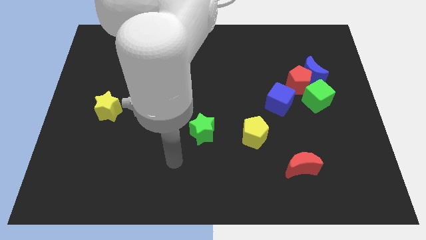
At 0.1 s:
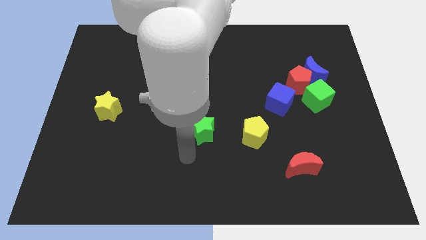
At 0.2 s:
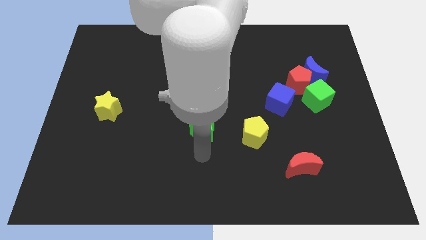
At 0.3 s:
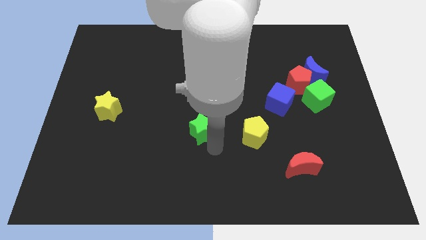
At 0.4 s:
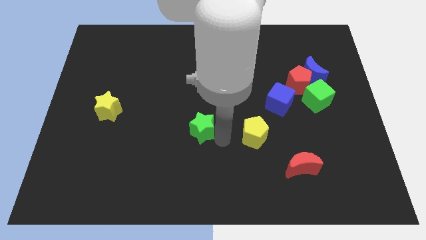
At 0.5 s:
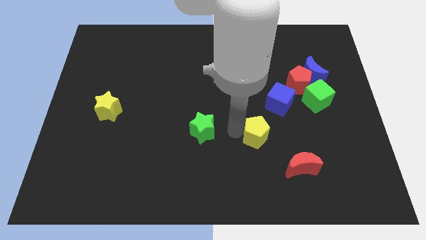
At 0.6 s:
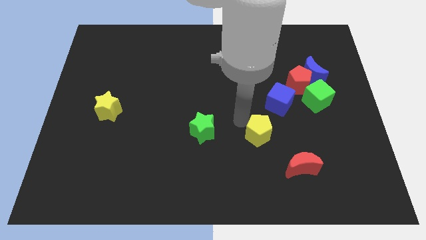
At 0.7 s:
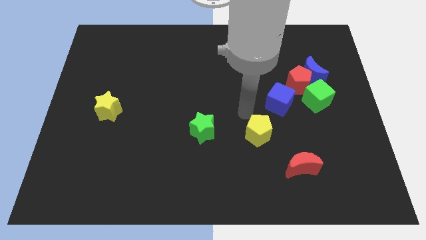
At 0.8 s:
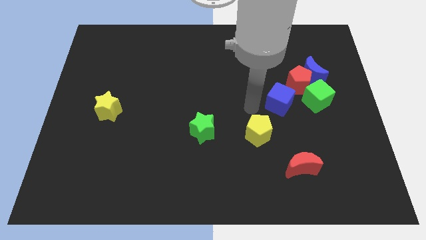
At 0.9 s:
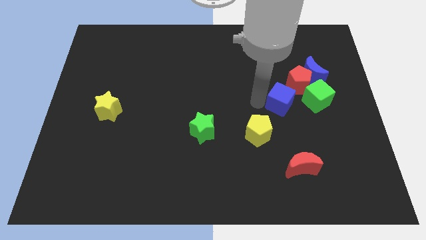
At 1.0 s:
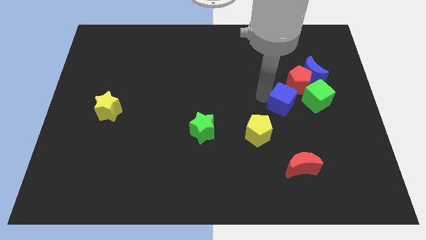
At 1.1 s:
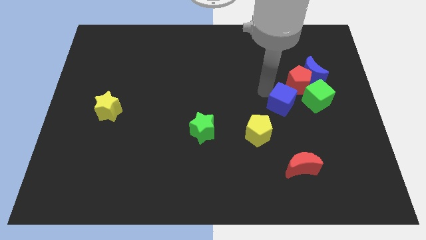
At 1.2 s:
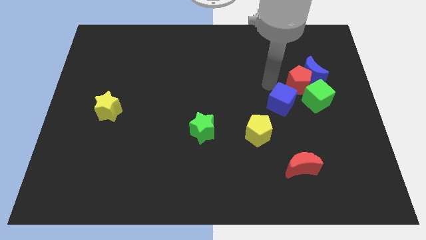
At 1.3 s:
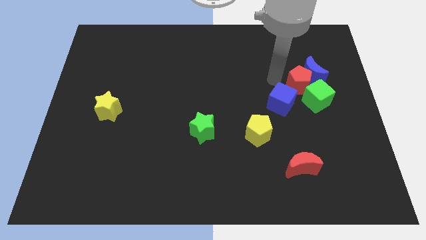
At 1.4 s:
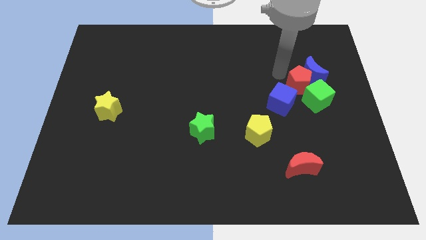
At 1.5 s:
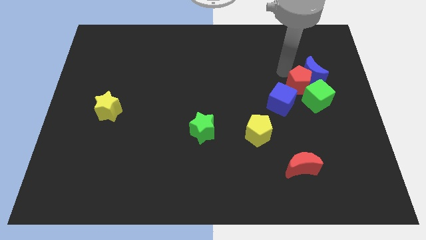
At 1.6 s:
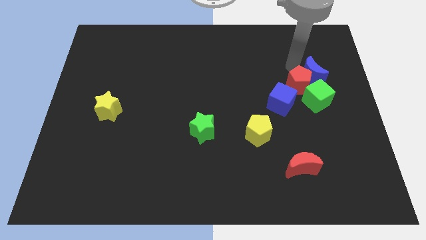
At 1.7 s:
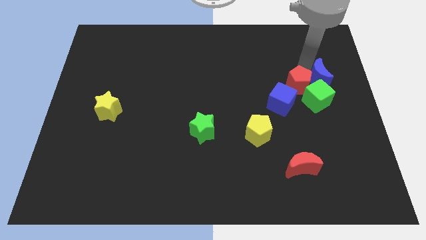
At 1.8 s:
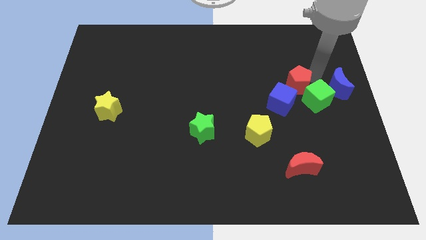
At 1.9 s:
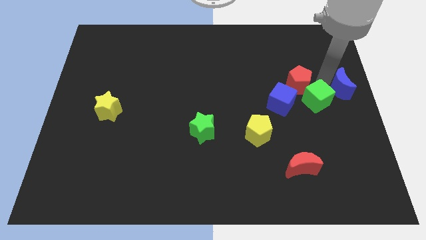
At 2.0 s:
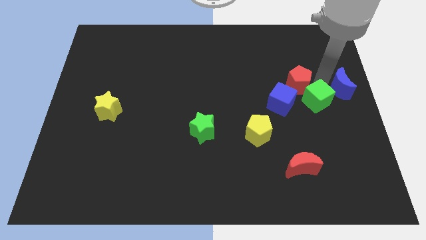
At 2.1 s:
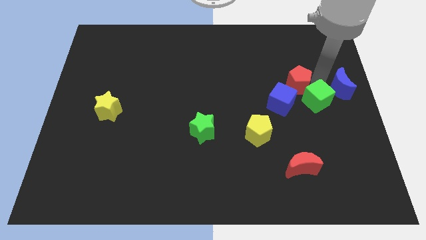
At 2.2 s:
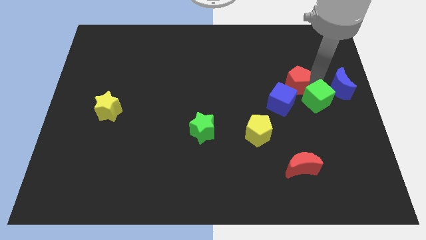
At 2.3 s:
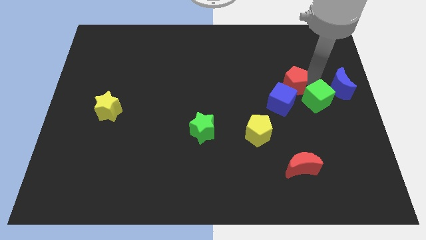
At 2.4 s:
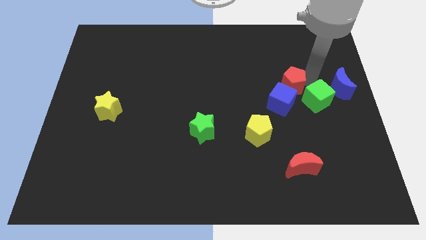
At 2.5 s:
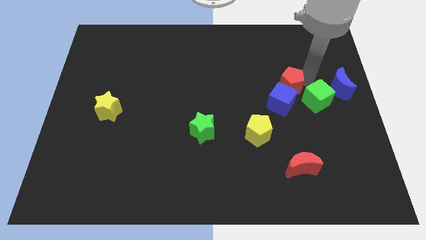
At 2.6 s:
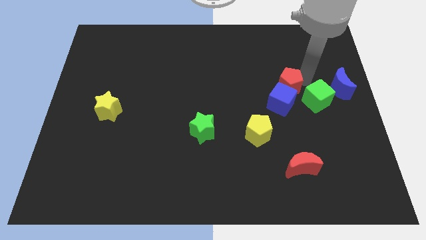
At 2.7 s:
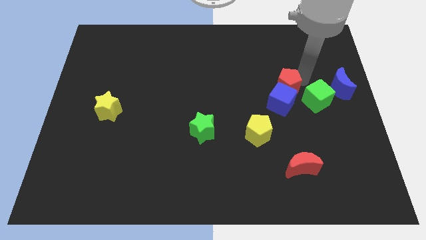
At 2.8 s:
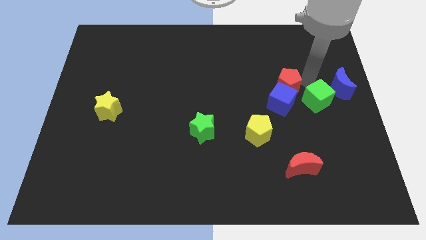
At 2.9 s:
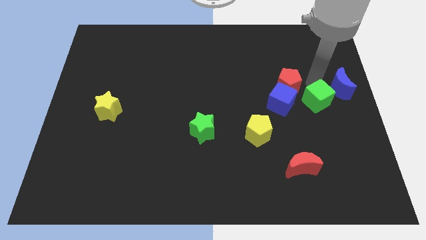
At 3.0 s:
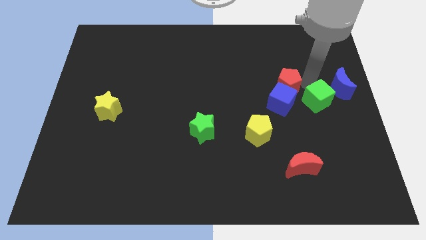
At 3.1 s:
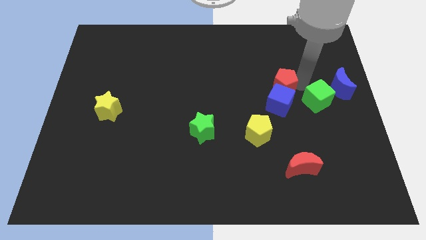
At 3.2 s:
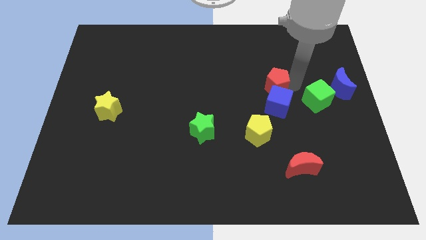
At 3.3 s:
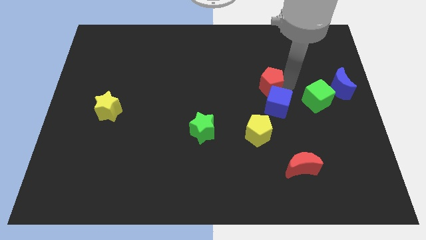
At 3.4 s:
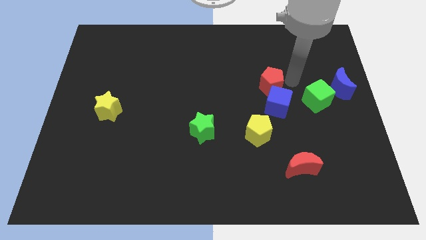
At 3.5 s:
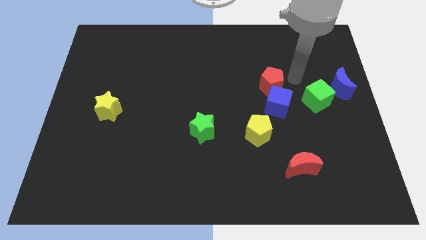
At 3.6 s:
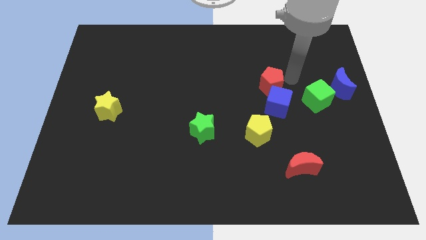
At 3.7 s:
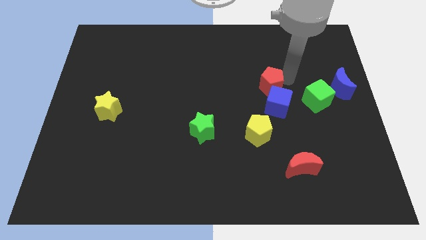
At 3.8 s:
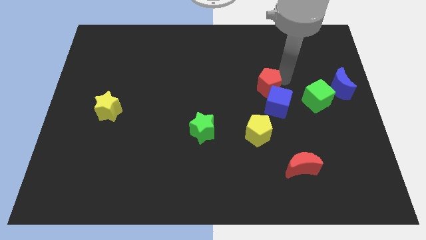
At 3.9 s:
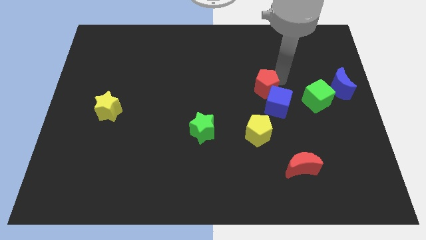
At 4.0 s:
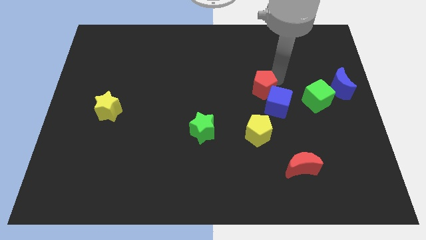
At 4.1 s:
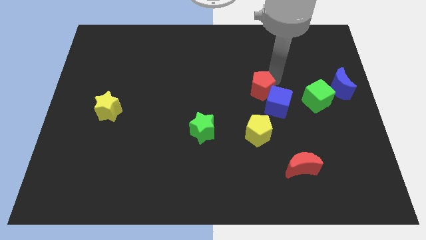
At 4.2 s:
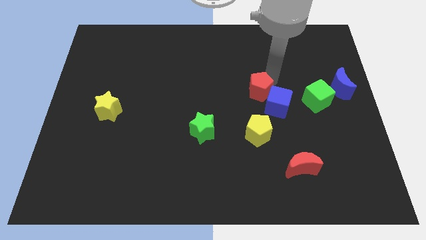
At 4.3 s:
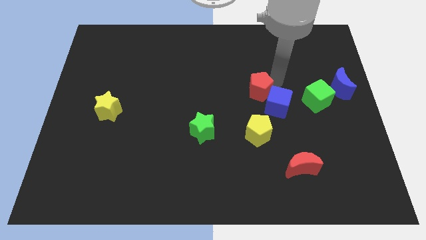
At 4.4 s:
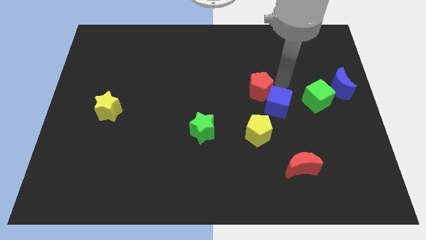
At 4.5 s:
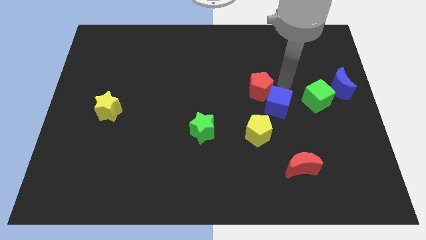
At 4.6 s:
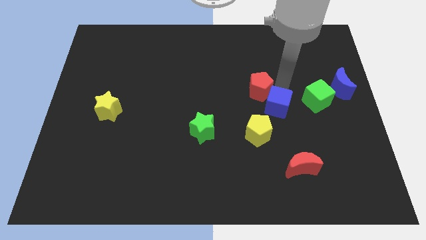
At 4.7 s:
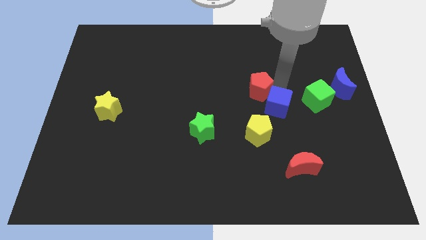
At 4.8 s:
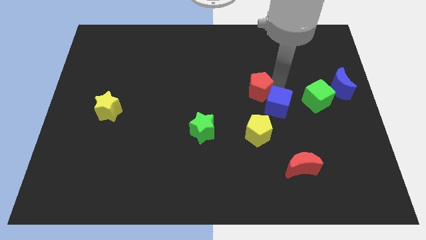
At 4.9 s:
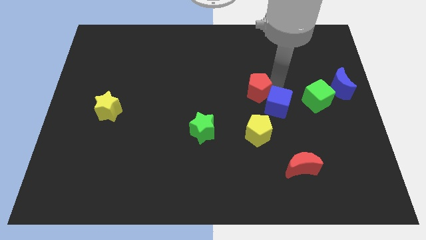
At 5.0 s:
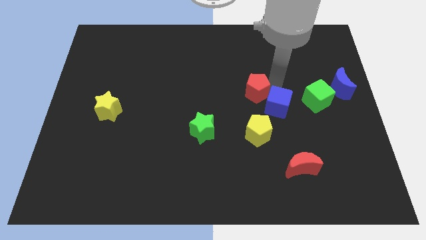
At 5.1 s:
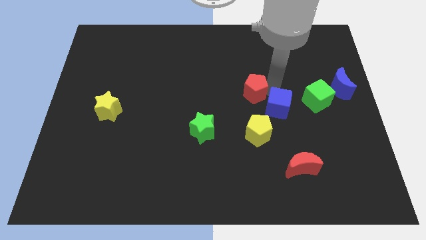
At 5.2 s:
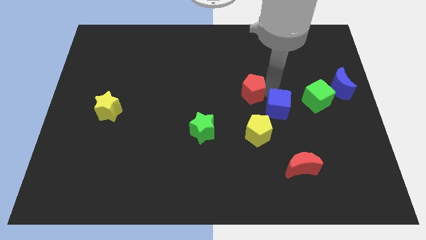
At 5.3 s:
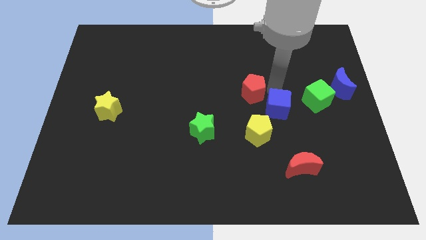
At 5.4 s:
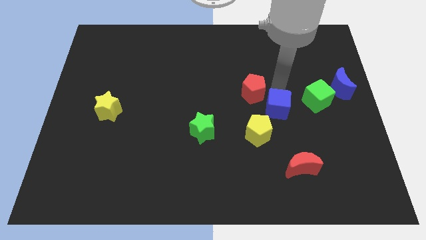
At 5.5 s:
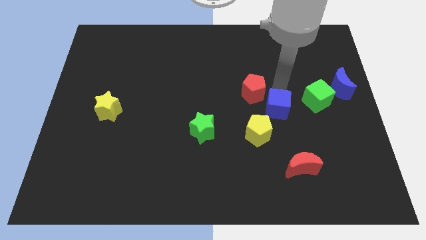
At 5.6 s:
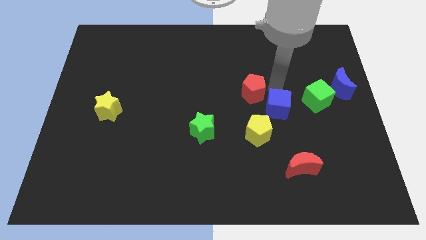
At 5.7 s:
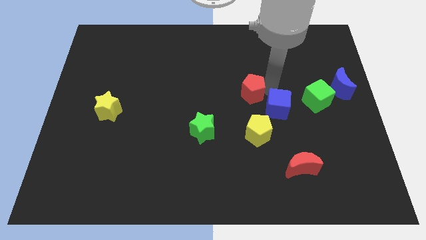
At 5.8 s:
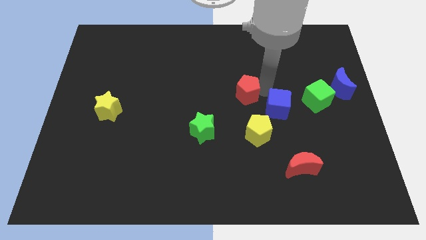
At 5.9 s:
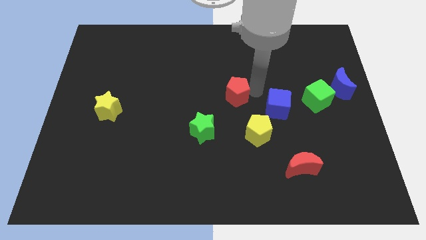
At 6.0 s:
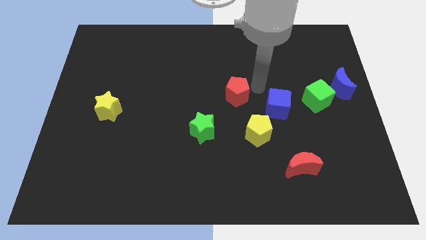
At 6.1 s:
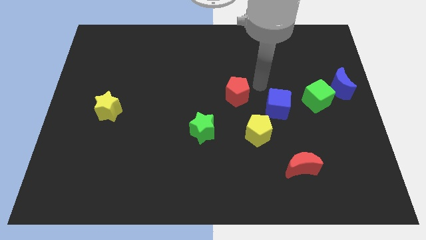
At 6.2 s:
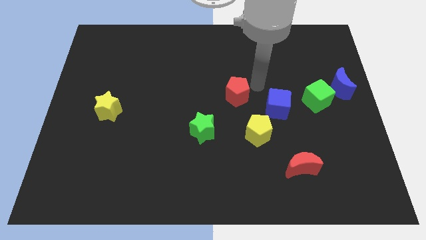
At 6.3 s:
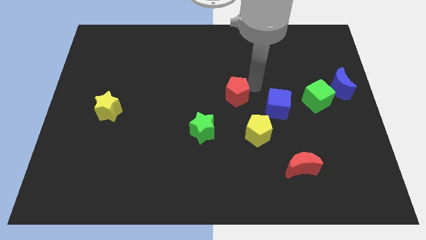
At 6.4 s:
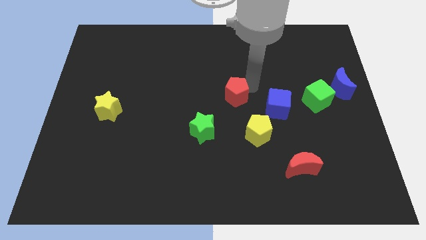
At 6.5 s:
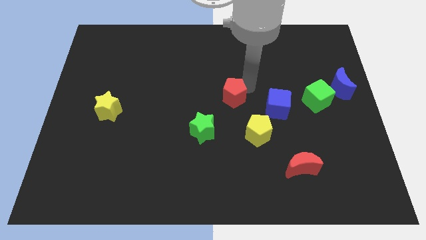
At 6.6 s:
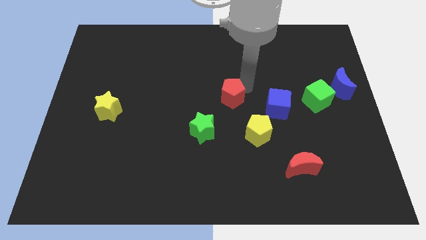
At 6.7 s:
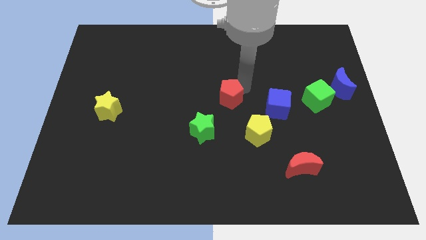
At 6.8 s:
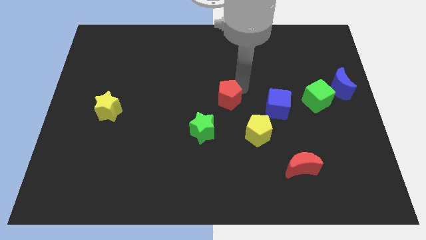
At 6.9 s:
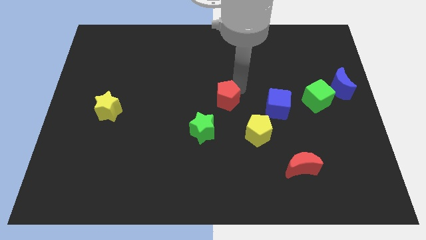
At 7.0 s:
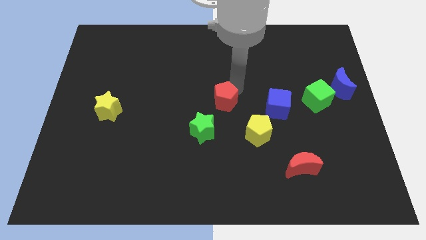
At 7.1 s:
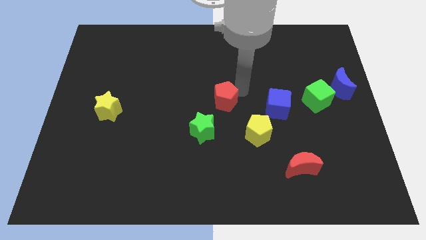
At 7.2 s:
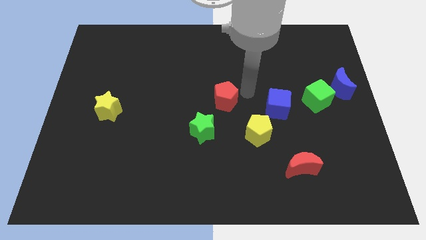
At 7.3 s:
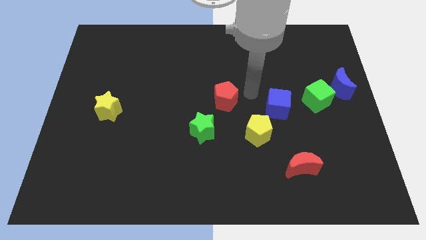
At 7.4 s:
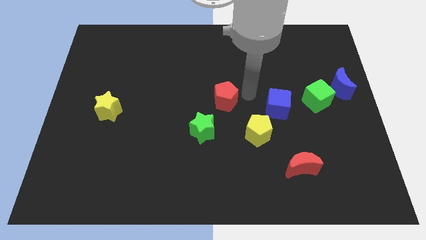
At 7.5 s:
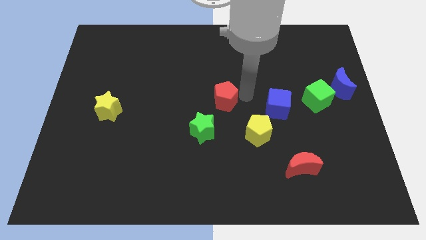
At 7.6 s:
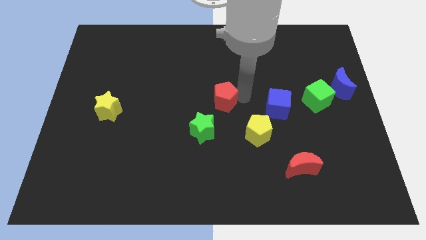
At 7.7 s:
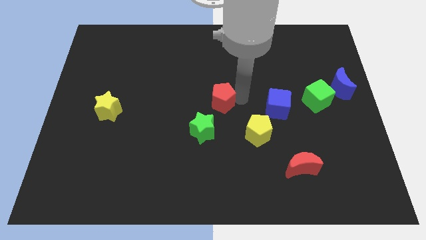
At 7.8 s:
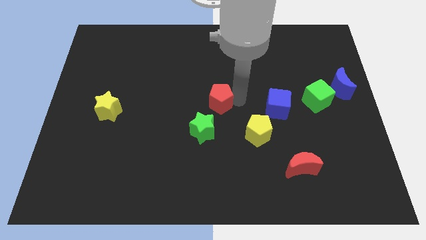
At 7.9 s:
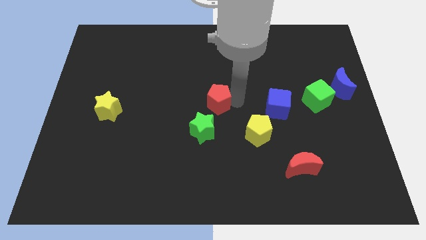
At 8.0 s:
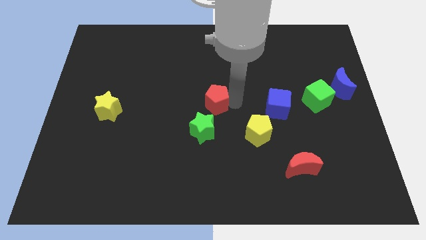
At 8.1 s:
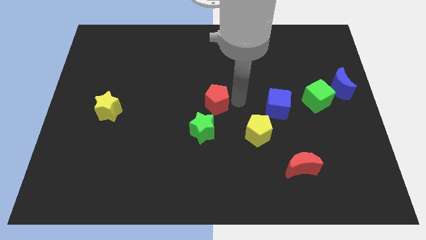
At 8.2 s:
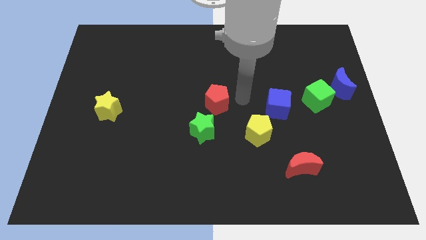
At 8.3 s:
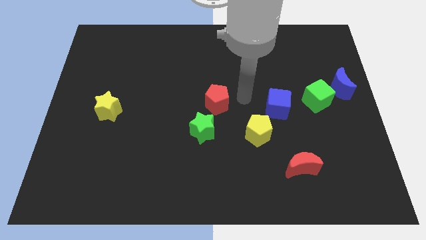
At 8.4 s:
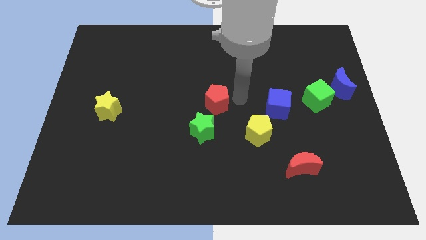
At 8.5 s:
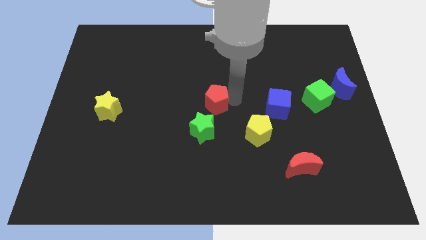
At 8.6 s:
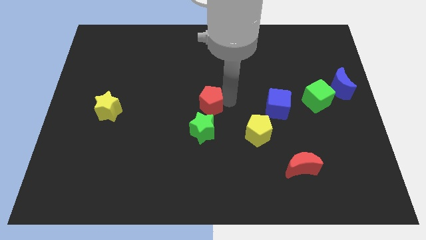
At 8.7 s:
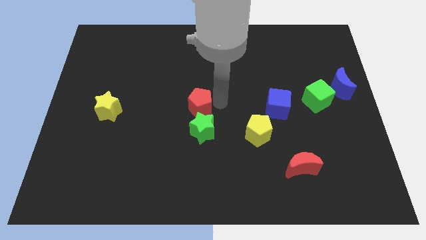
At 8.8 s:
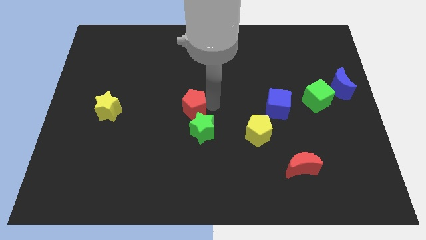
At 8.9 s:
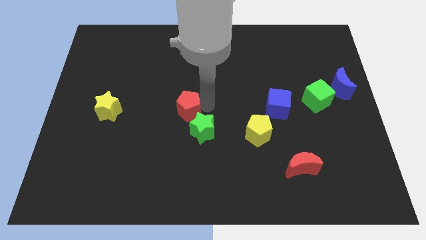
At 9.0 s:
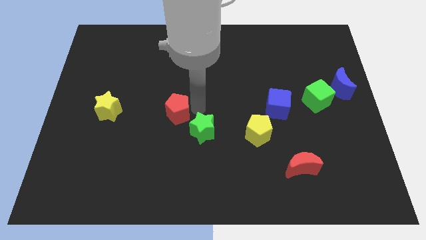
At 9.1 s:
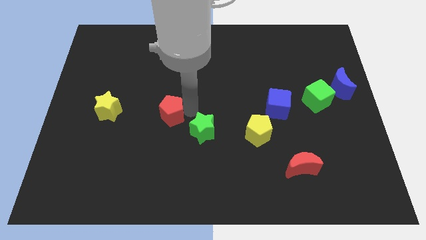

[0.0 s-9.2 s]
move the red pentagon just right of the yellow star
